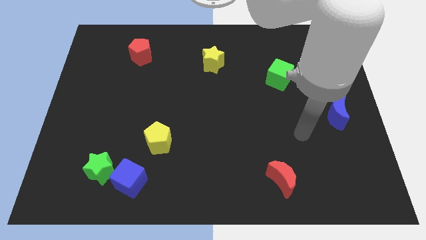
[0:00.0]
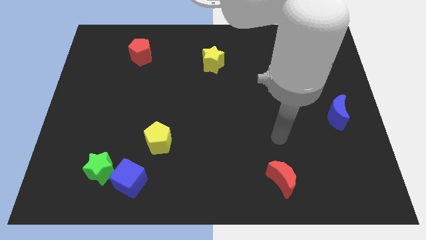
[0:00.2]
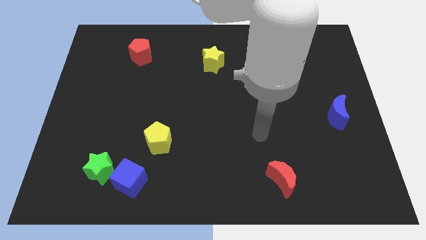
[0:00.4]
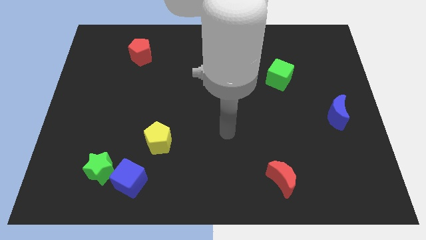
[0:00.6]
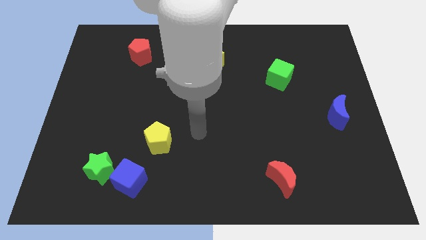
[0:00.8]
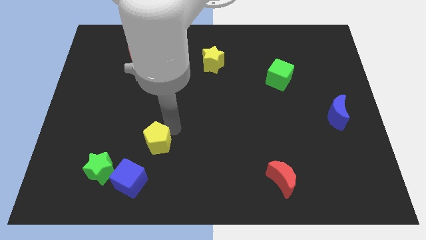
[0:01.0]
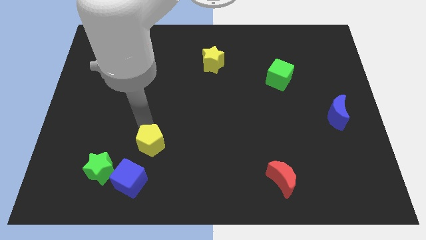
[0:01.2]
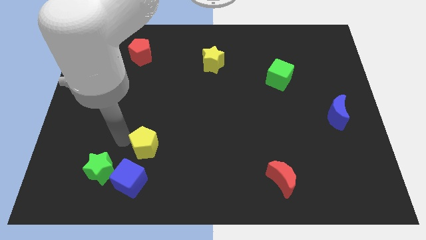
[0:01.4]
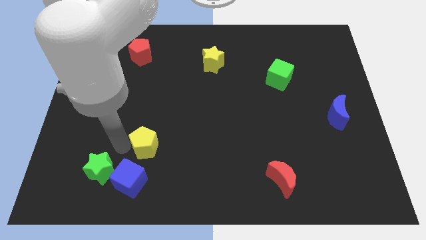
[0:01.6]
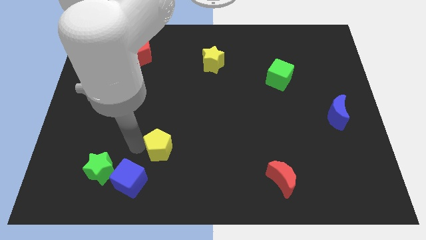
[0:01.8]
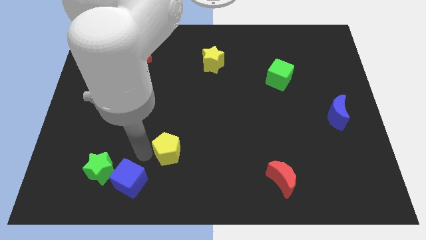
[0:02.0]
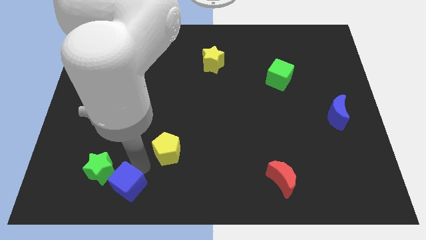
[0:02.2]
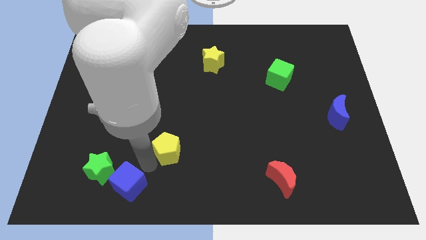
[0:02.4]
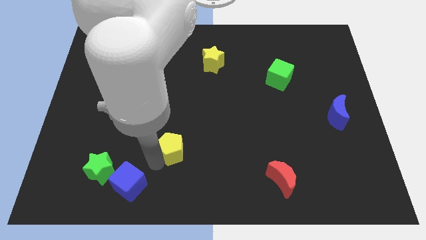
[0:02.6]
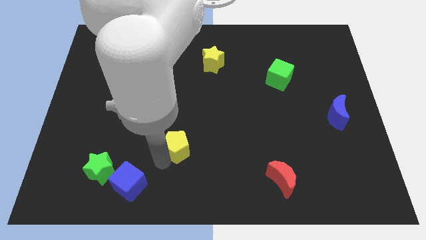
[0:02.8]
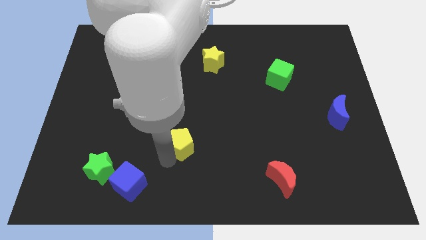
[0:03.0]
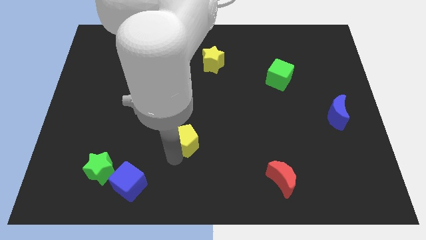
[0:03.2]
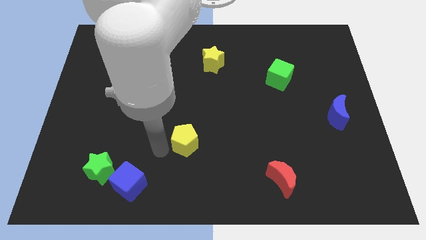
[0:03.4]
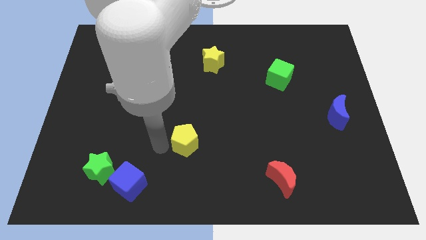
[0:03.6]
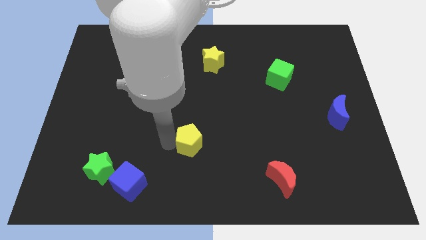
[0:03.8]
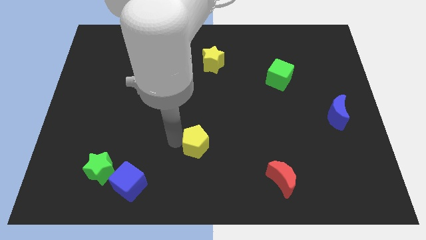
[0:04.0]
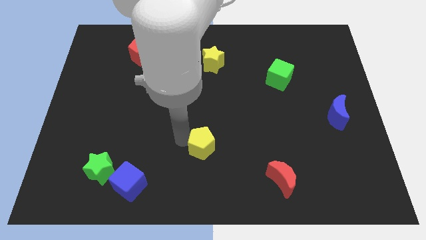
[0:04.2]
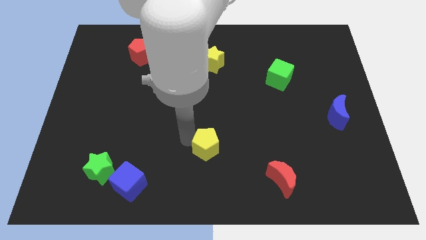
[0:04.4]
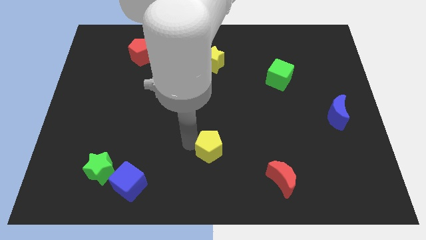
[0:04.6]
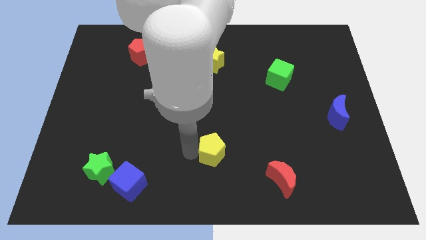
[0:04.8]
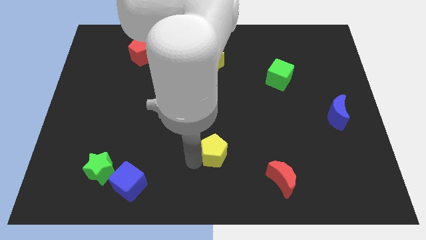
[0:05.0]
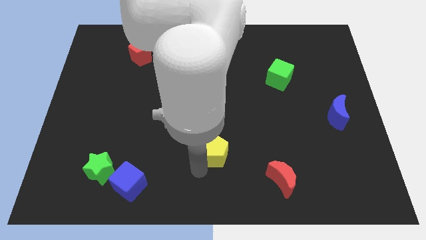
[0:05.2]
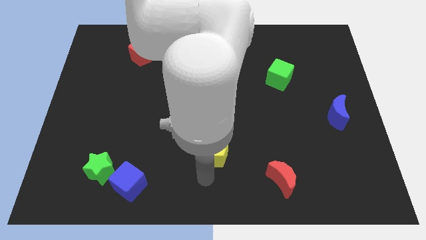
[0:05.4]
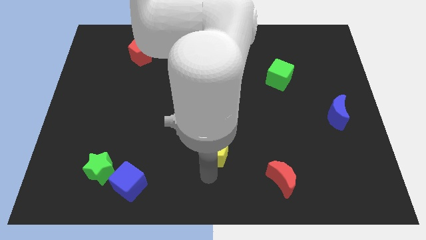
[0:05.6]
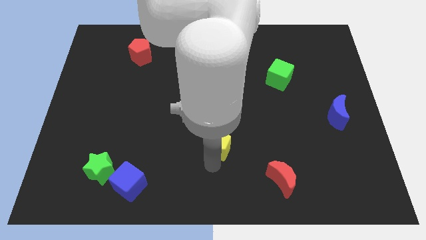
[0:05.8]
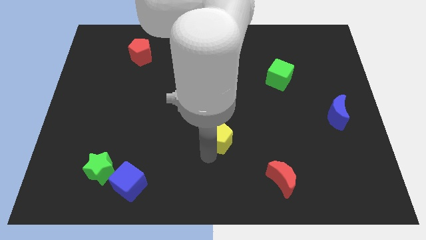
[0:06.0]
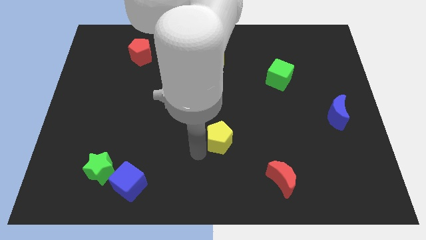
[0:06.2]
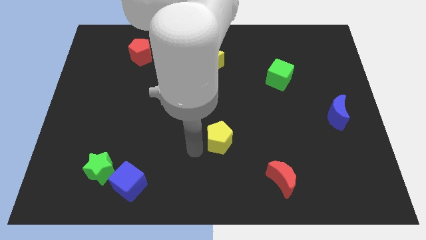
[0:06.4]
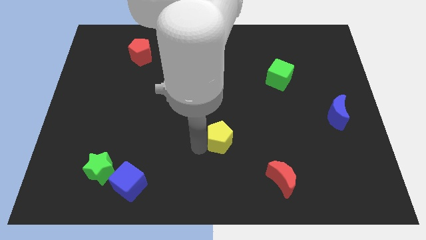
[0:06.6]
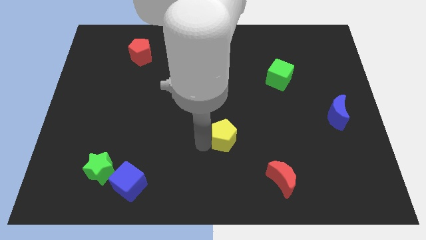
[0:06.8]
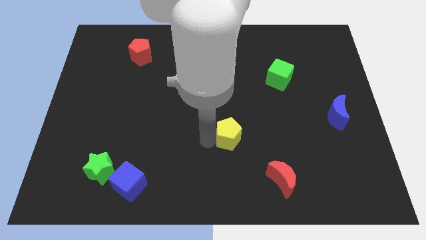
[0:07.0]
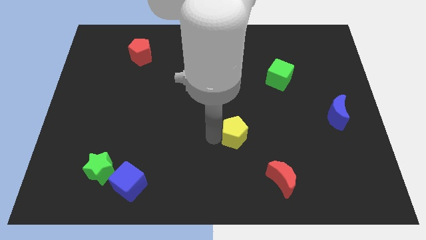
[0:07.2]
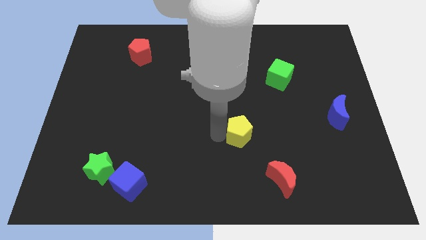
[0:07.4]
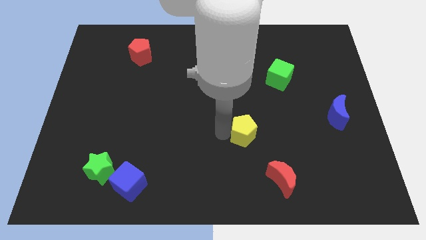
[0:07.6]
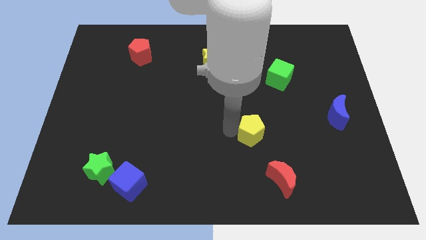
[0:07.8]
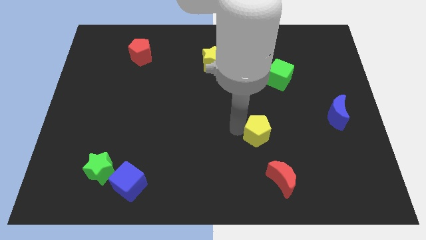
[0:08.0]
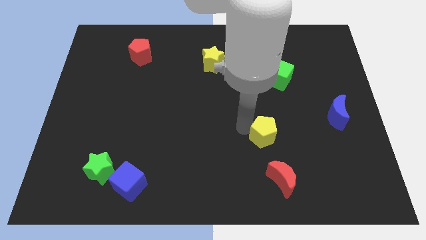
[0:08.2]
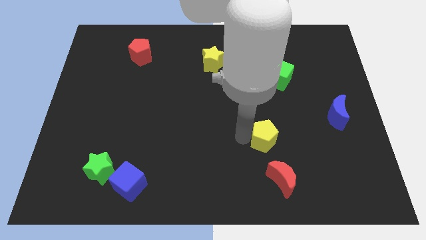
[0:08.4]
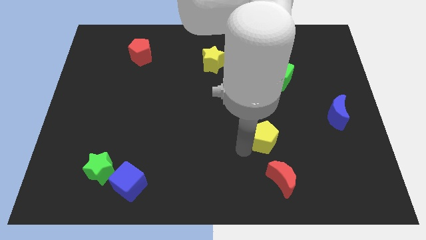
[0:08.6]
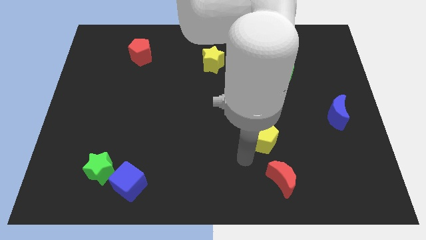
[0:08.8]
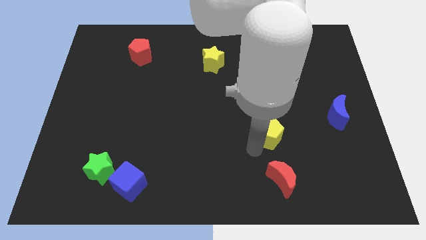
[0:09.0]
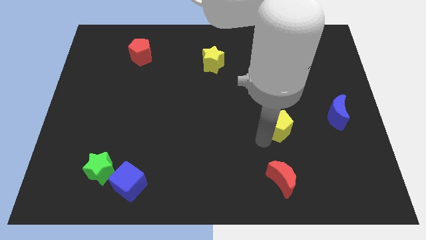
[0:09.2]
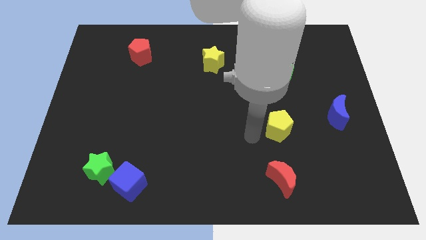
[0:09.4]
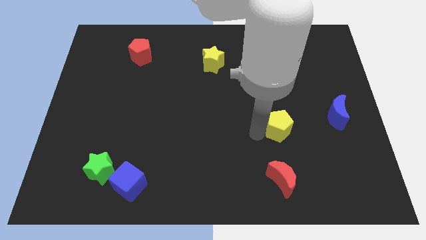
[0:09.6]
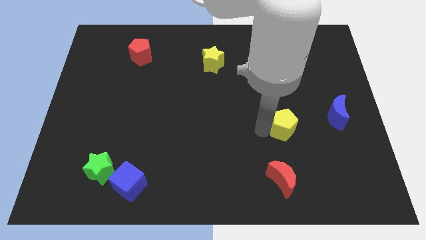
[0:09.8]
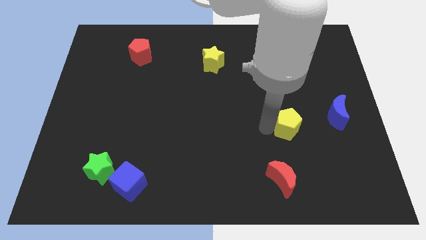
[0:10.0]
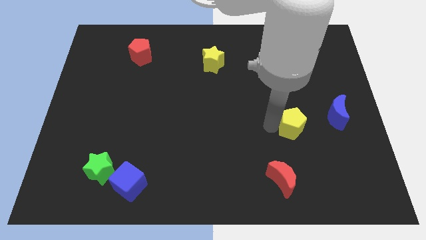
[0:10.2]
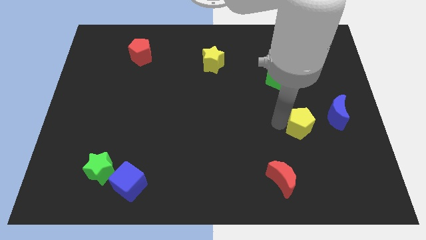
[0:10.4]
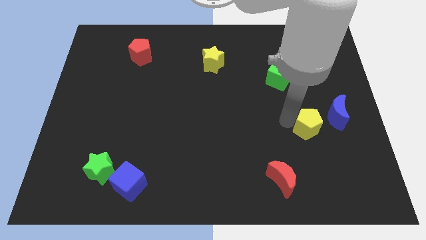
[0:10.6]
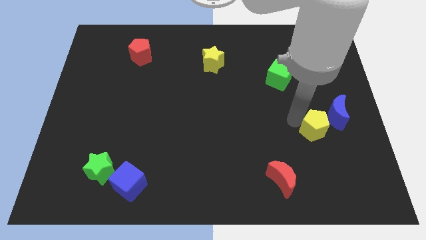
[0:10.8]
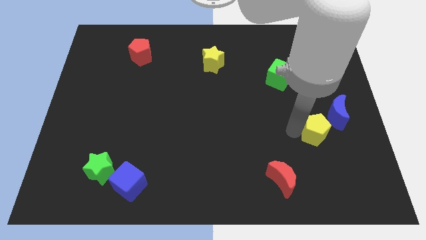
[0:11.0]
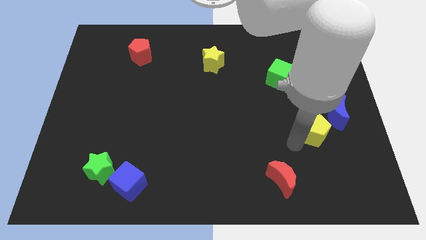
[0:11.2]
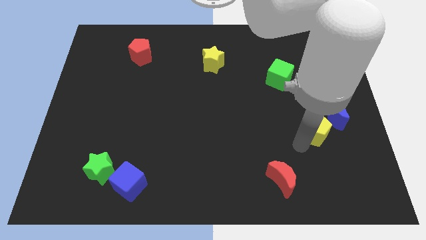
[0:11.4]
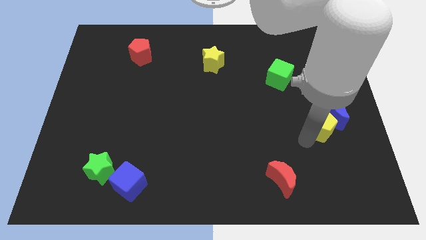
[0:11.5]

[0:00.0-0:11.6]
push the yellow pentagon towards the blue moon

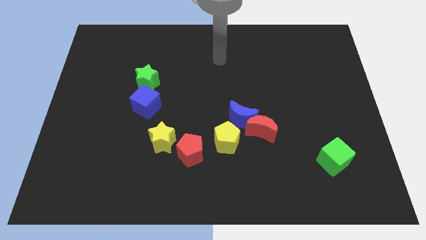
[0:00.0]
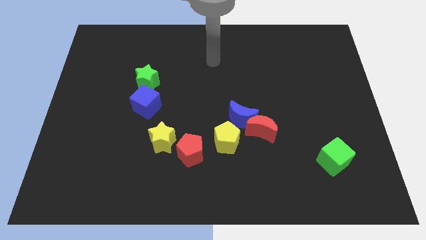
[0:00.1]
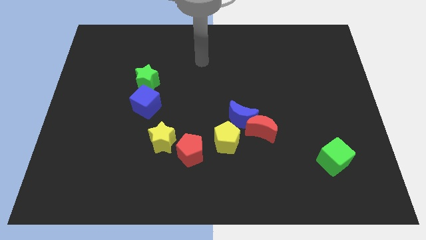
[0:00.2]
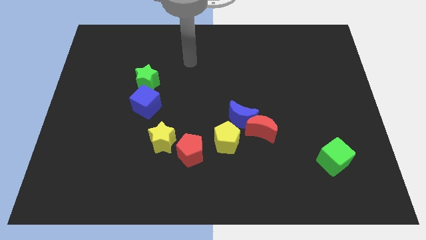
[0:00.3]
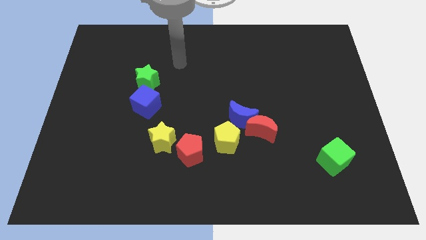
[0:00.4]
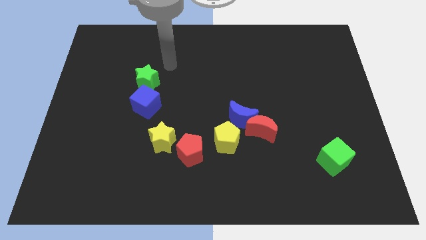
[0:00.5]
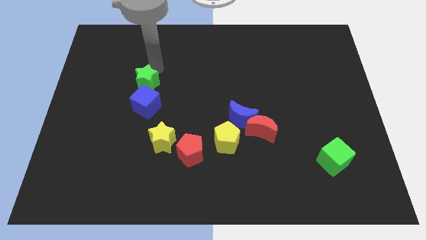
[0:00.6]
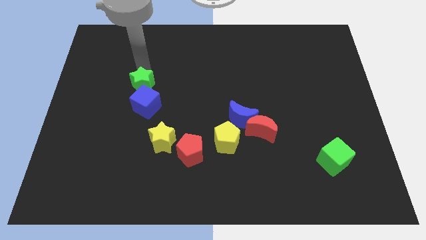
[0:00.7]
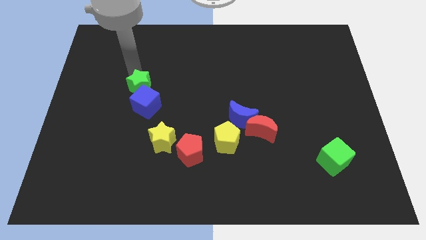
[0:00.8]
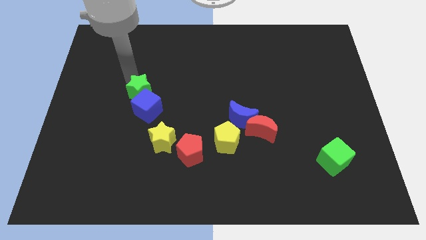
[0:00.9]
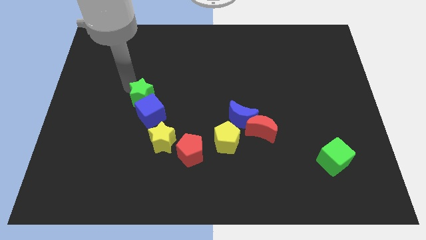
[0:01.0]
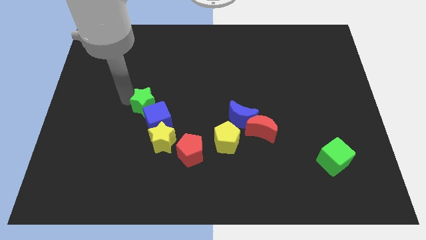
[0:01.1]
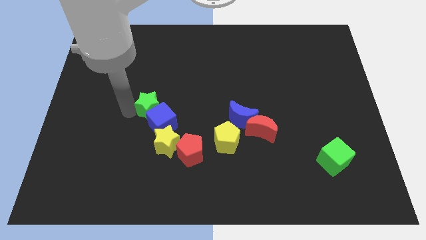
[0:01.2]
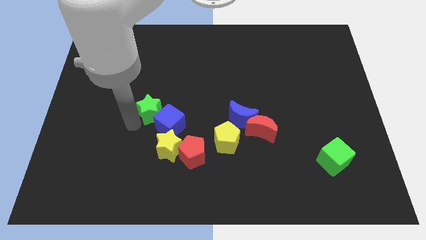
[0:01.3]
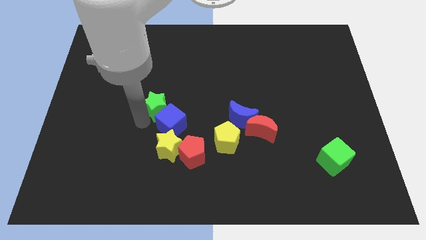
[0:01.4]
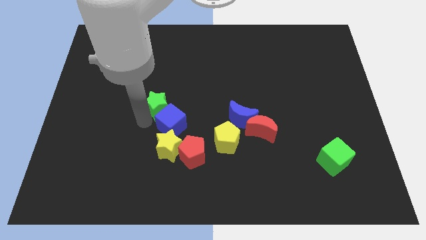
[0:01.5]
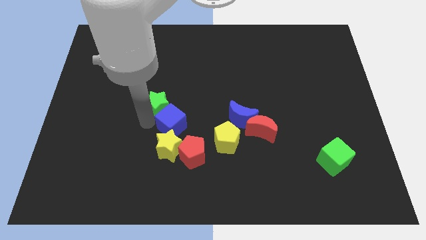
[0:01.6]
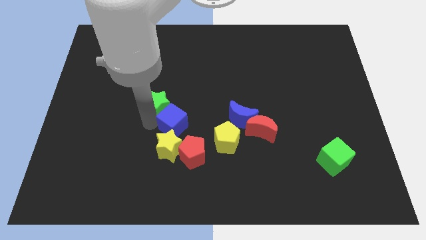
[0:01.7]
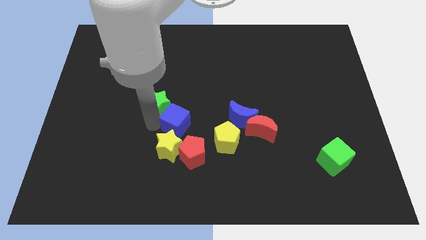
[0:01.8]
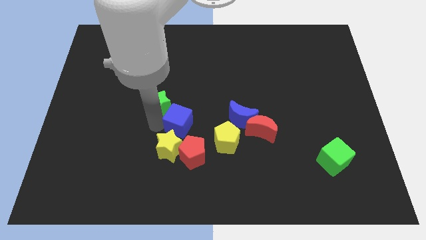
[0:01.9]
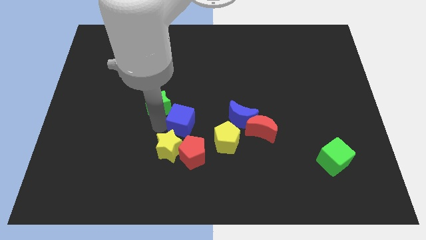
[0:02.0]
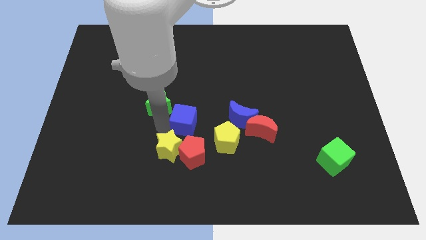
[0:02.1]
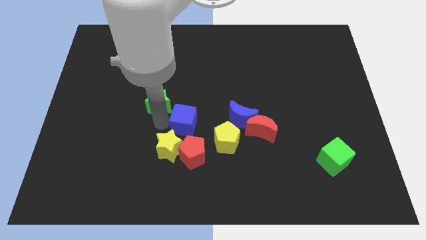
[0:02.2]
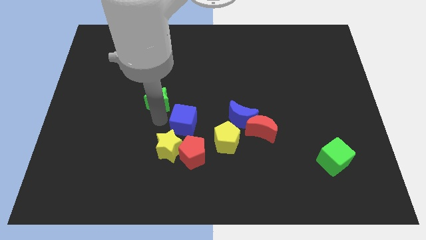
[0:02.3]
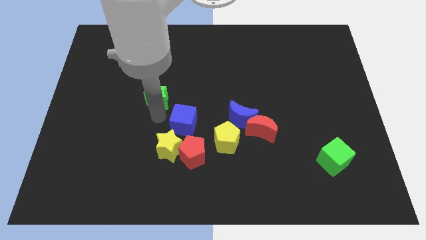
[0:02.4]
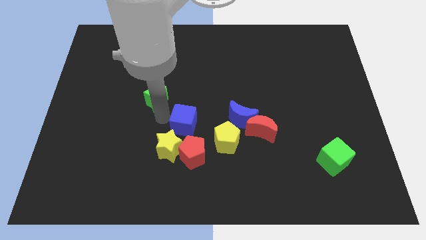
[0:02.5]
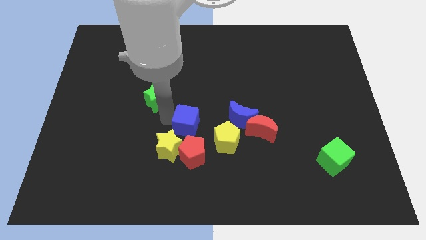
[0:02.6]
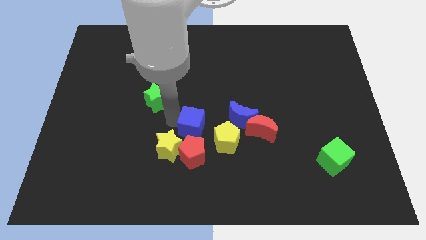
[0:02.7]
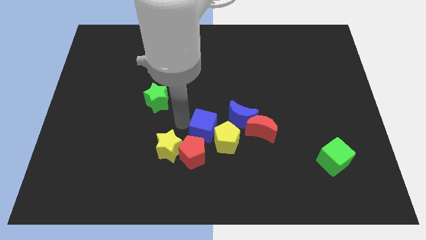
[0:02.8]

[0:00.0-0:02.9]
slide the blue cube towards the yellow pentagon
